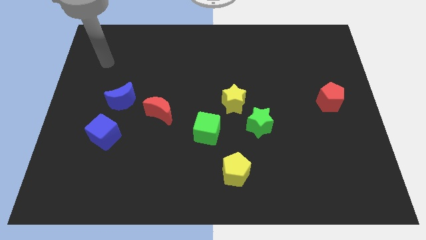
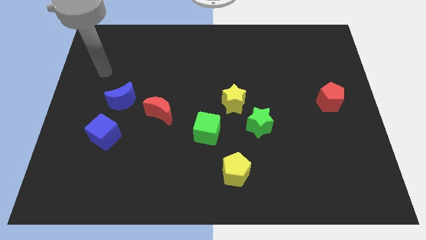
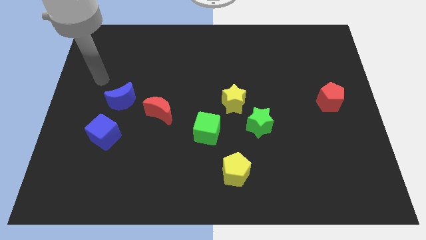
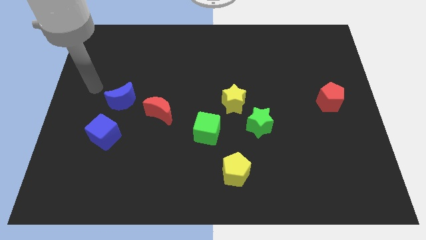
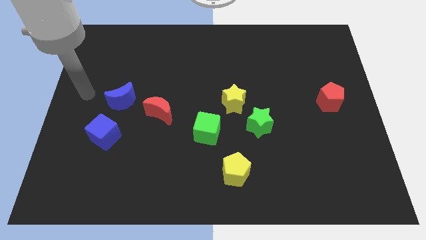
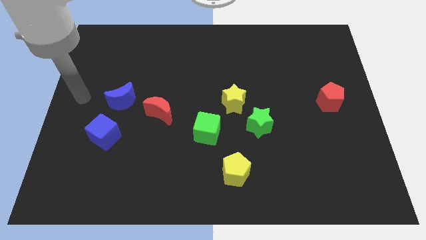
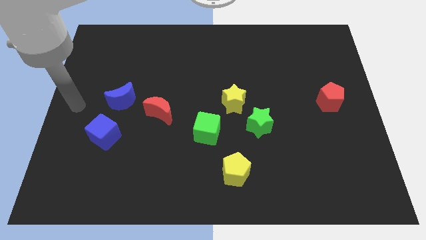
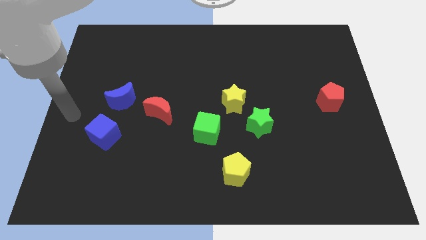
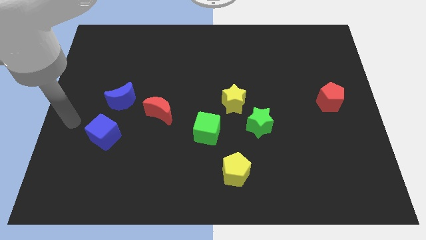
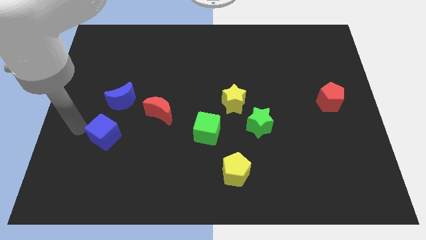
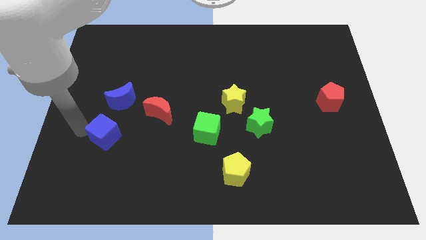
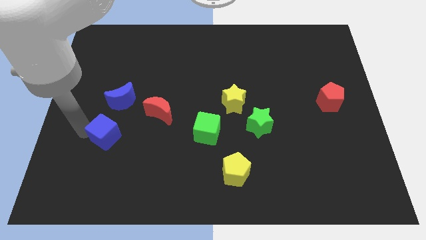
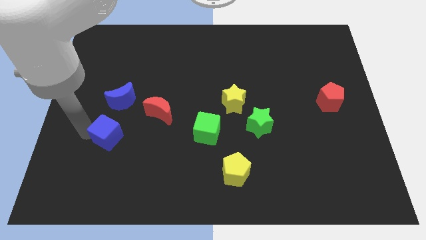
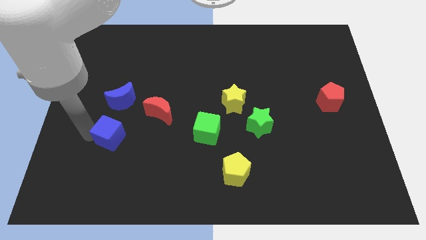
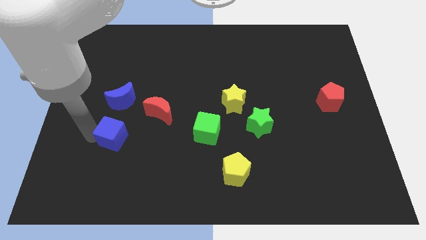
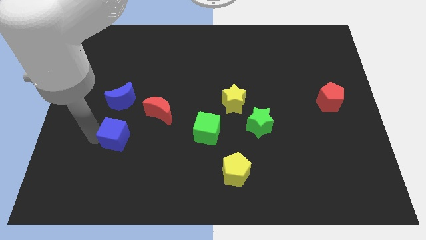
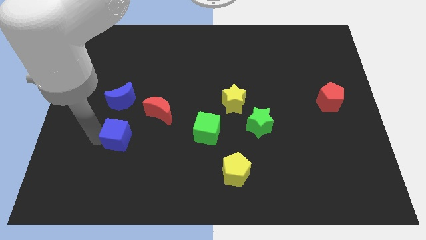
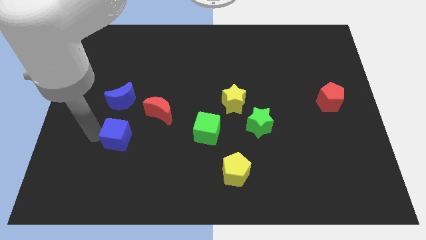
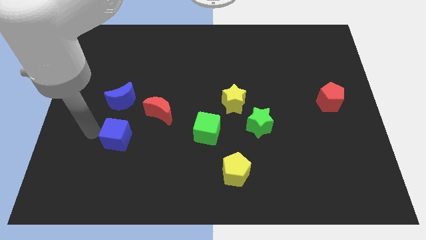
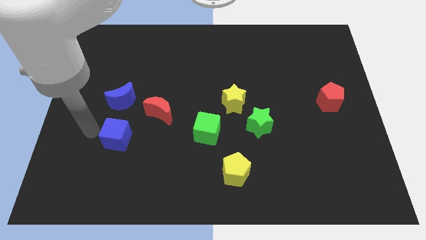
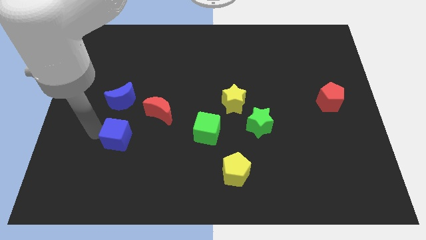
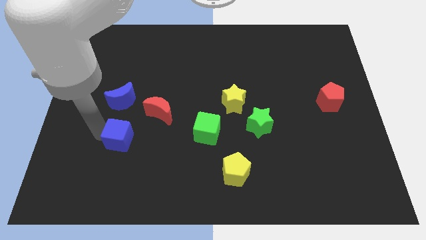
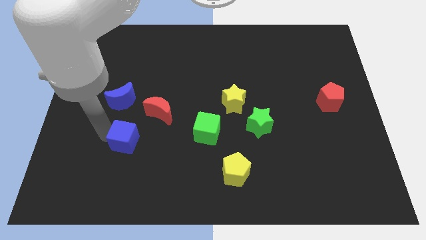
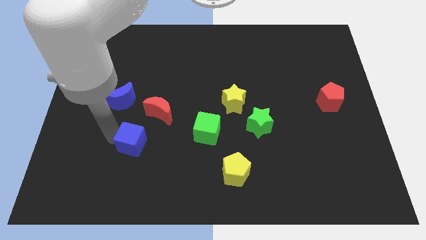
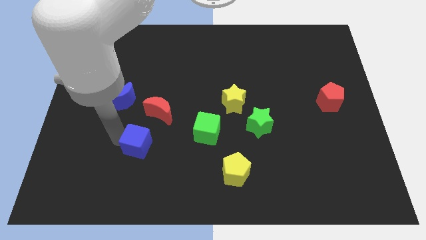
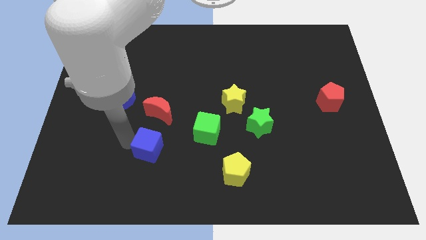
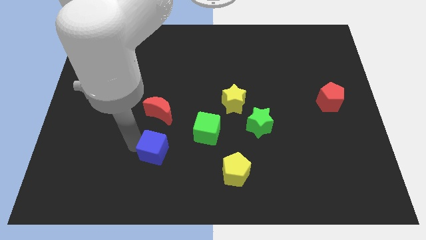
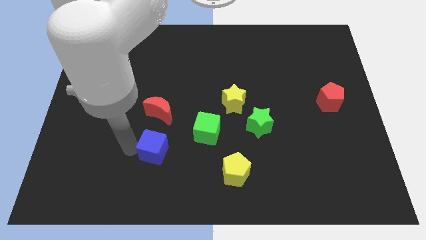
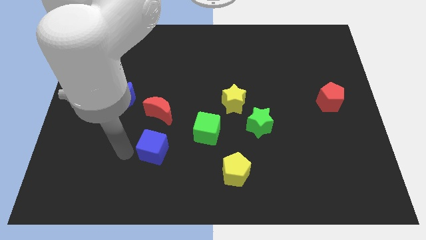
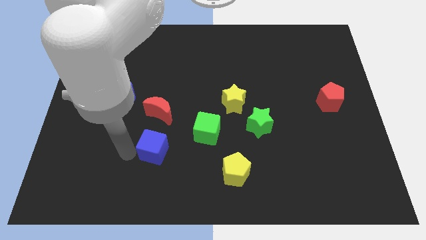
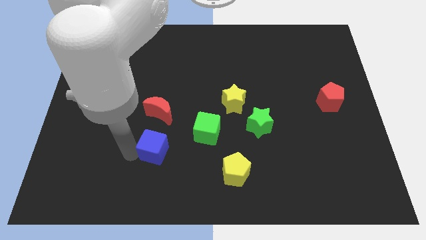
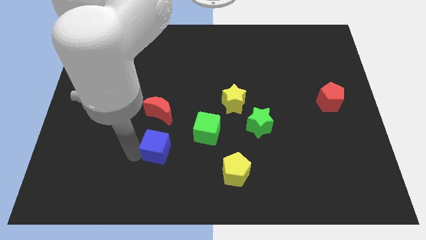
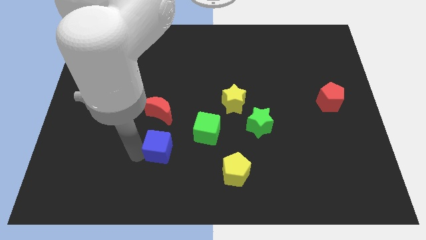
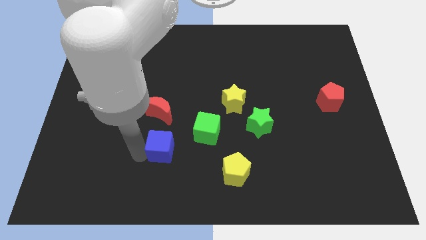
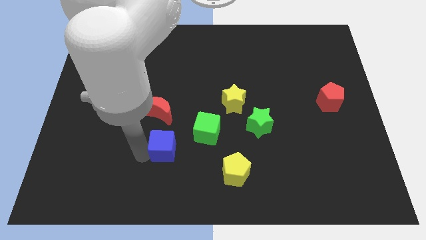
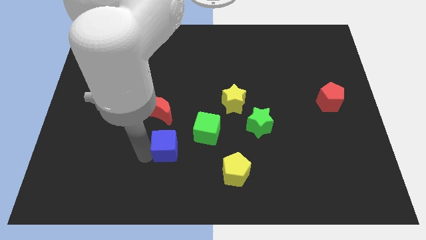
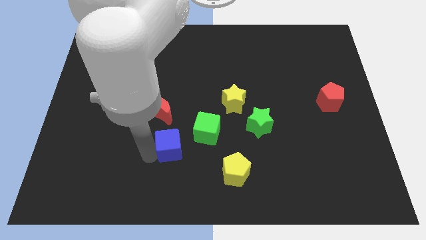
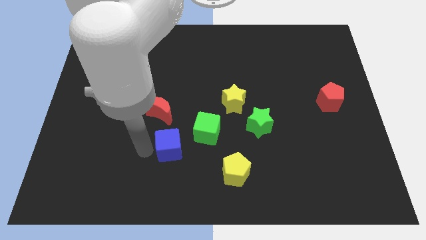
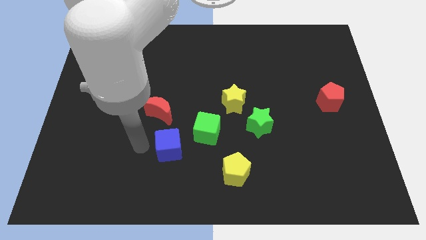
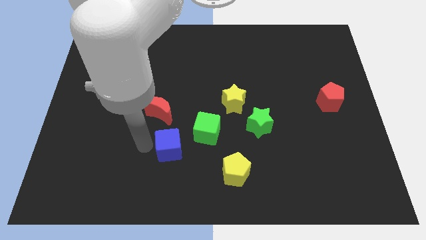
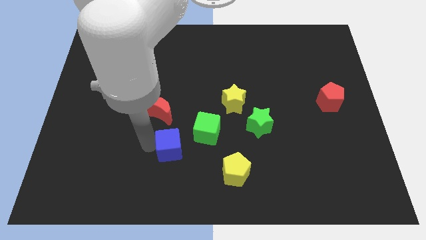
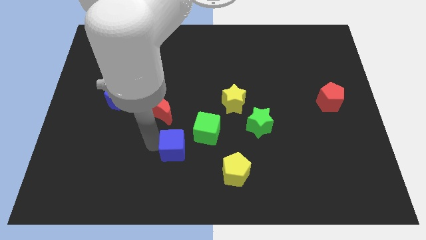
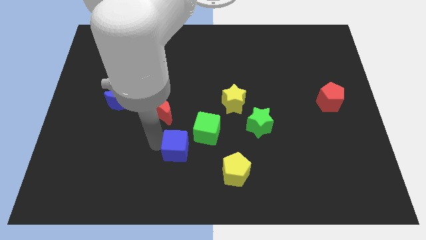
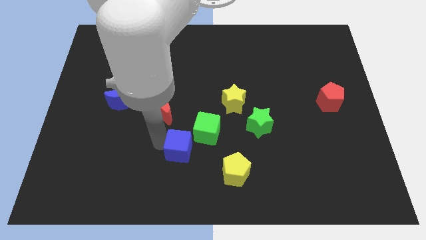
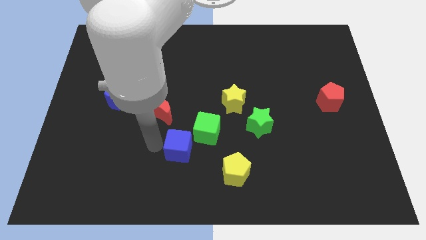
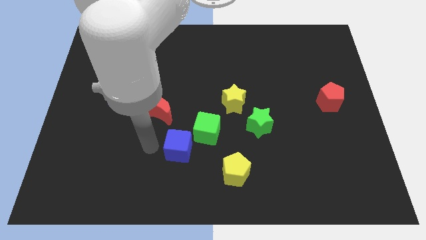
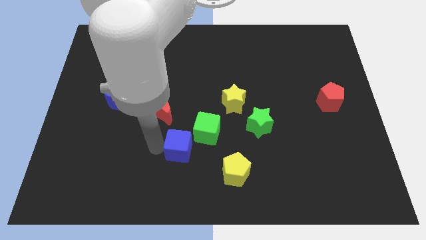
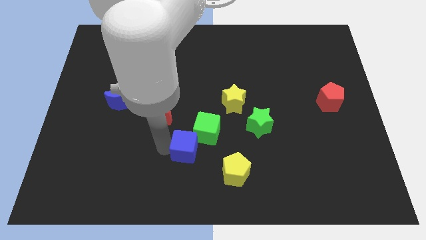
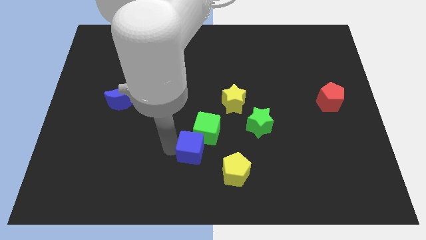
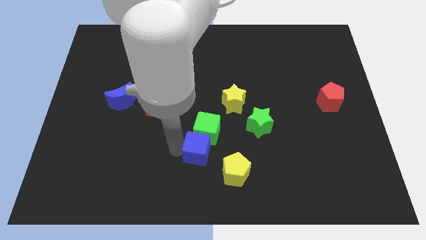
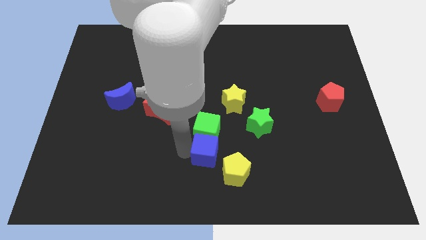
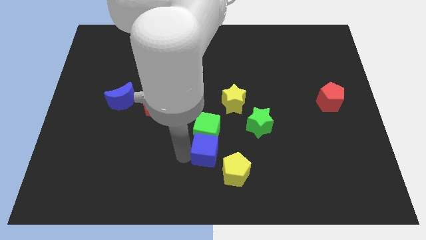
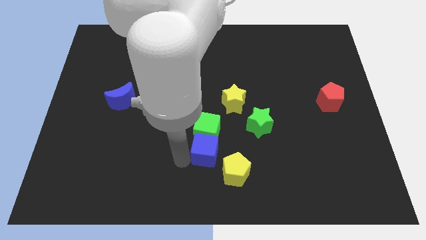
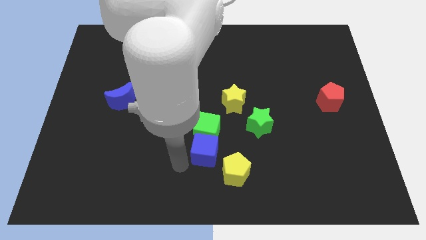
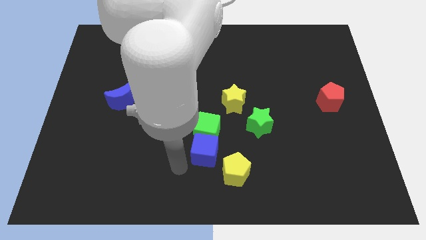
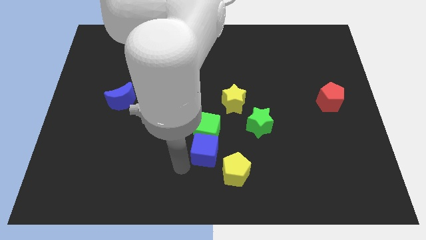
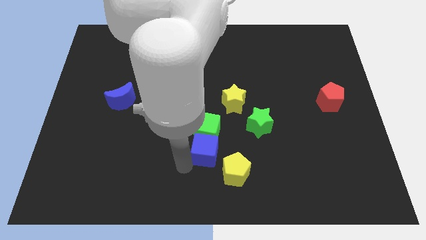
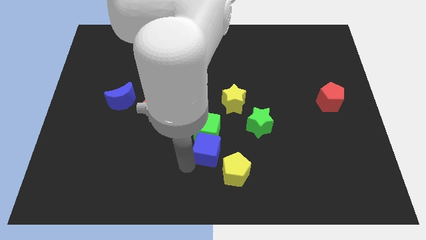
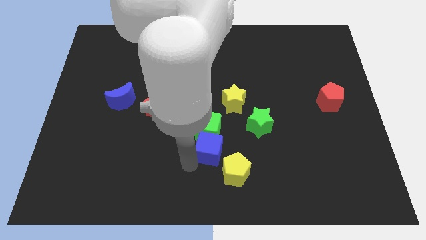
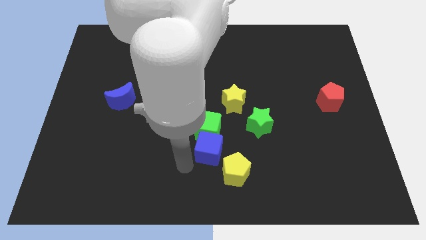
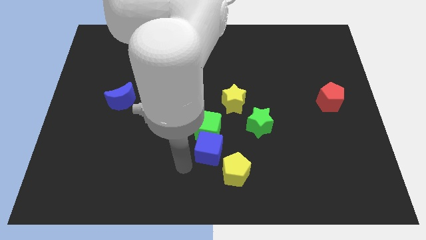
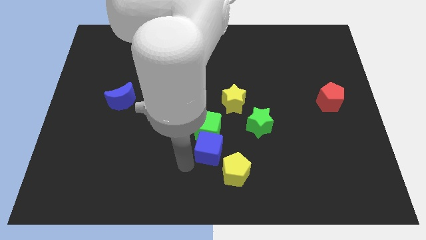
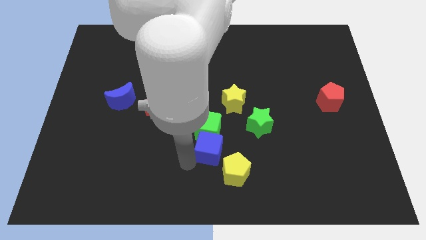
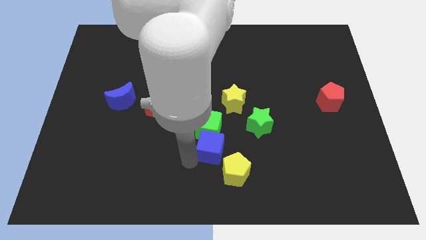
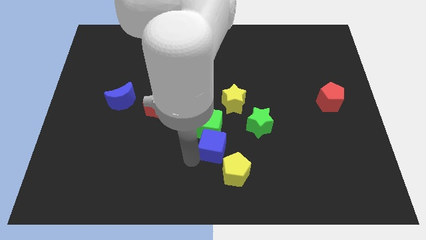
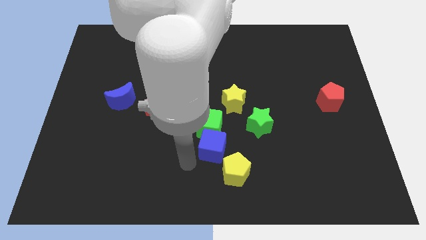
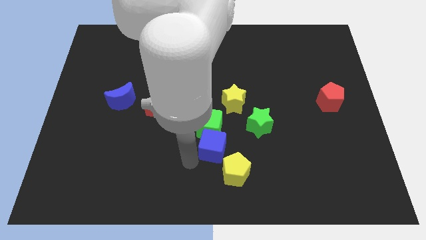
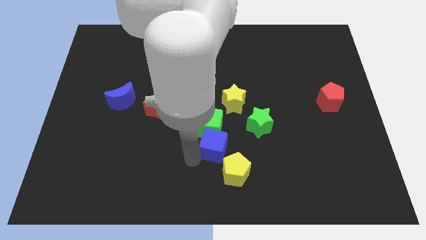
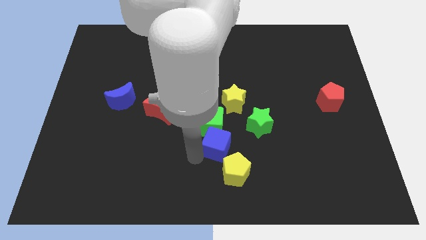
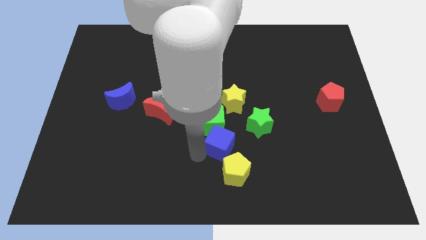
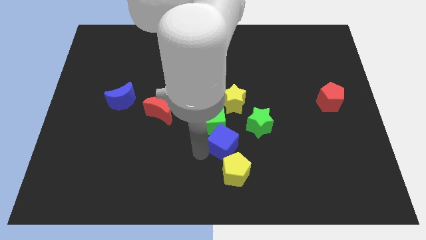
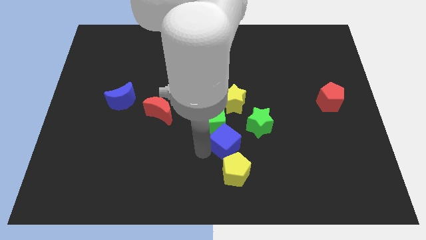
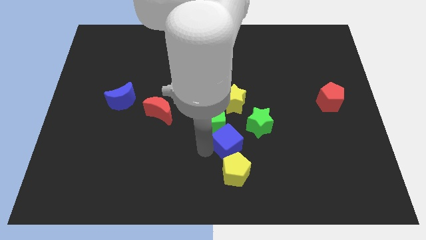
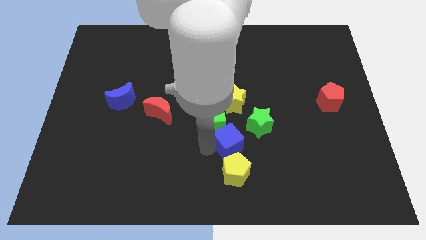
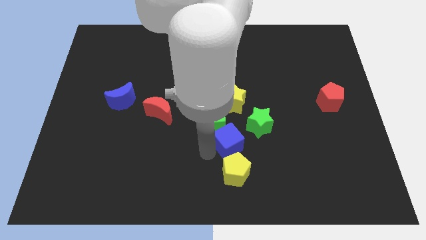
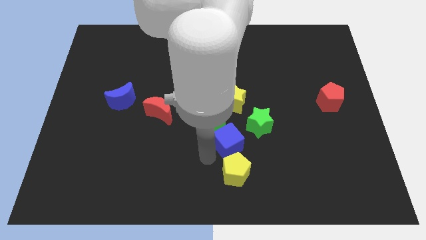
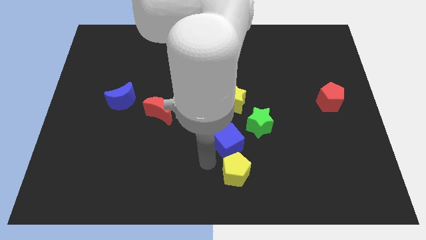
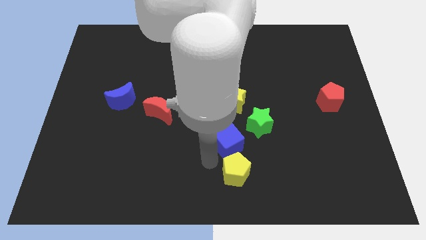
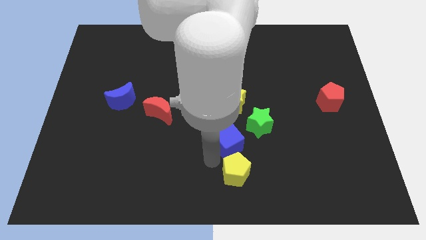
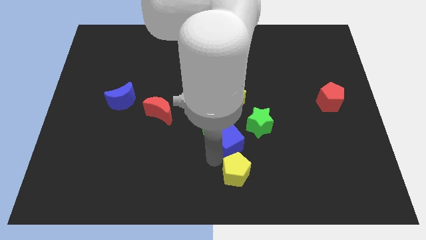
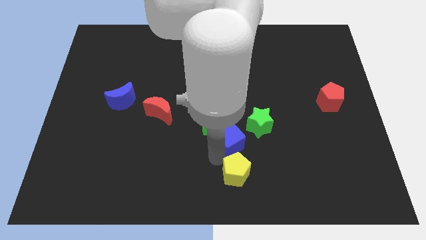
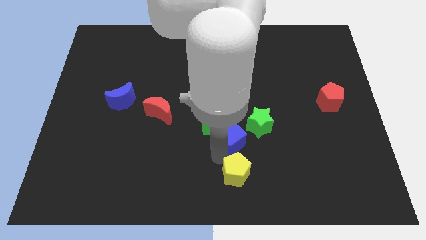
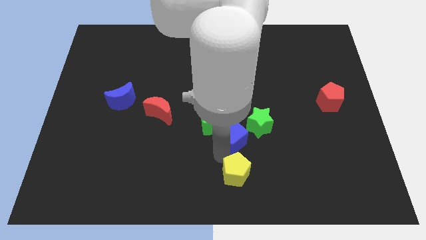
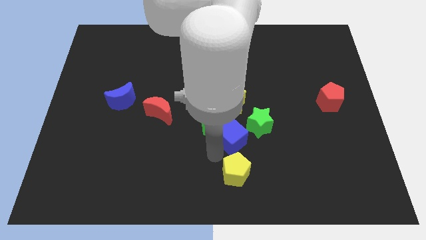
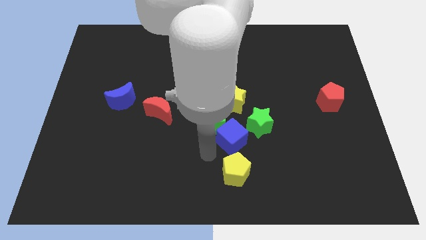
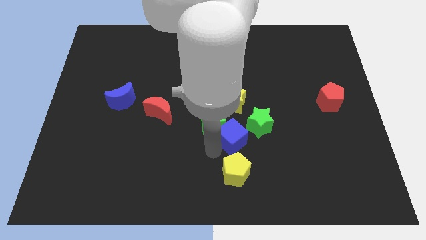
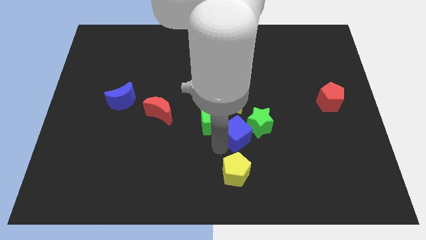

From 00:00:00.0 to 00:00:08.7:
move the blue cube towards the green star
